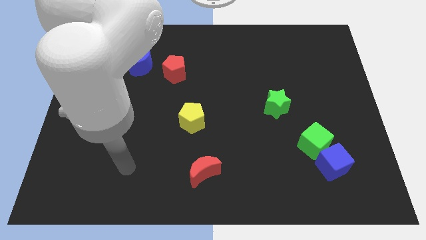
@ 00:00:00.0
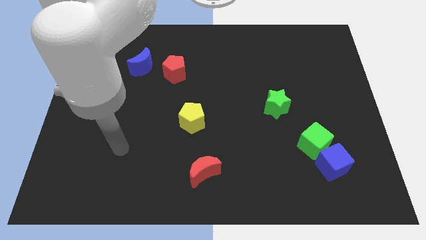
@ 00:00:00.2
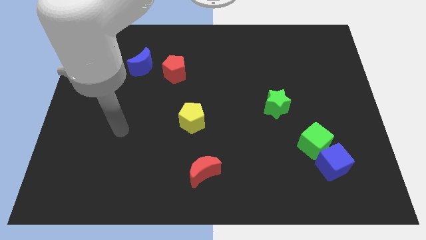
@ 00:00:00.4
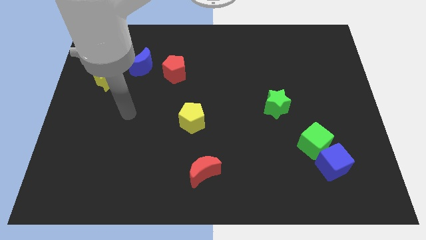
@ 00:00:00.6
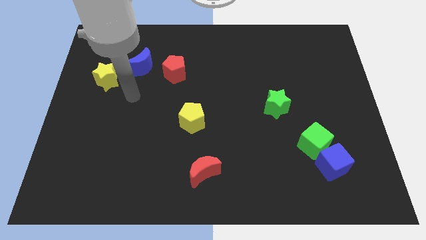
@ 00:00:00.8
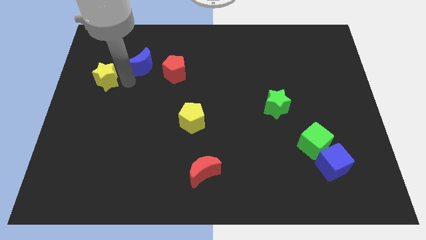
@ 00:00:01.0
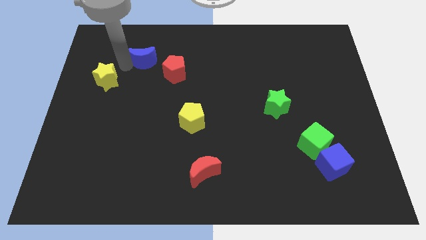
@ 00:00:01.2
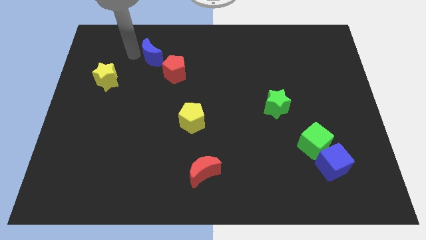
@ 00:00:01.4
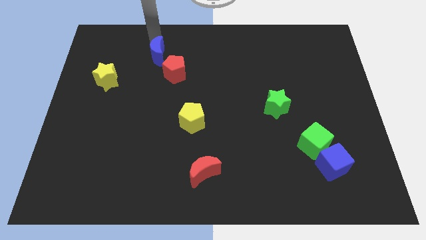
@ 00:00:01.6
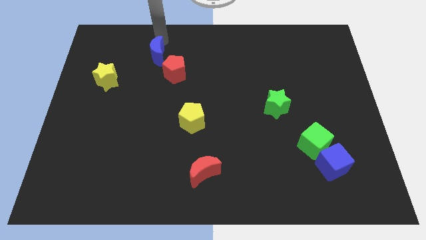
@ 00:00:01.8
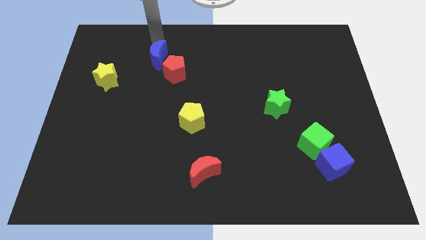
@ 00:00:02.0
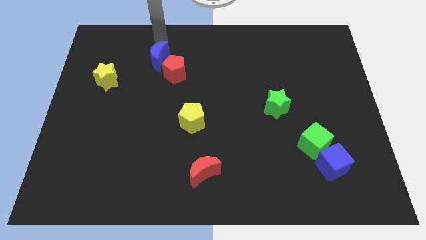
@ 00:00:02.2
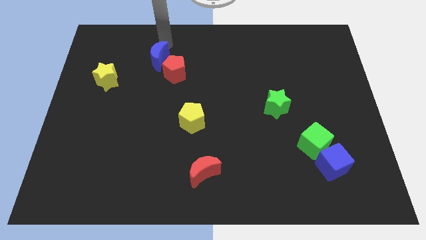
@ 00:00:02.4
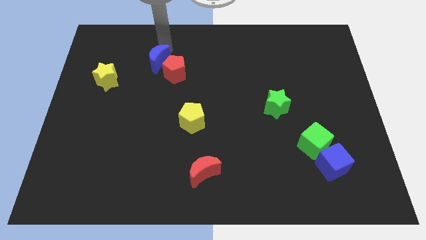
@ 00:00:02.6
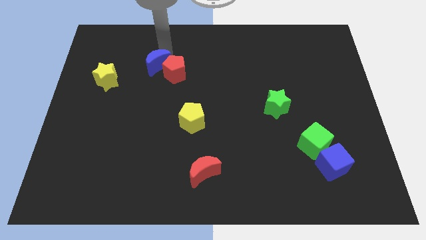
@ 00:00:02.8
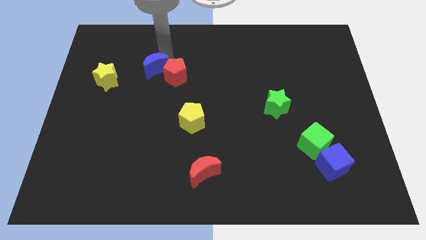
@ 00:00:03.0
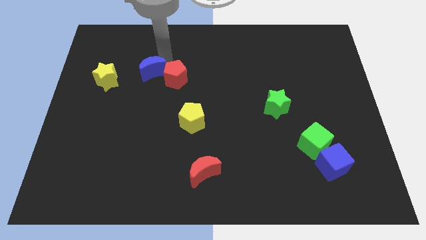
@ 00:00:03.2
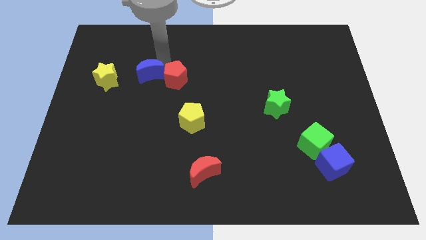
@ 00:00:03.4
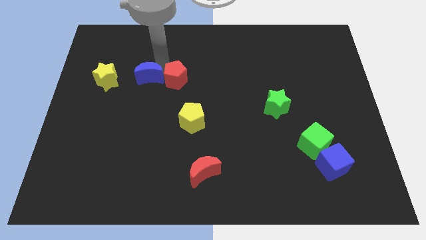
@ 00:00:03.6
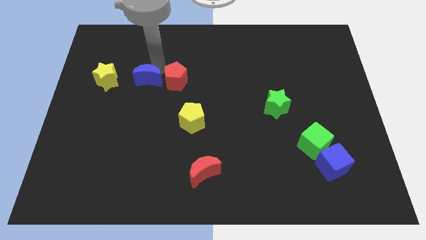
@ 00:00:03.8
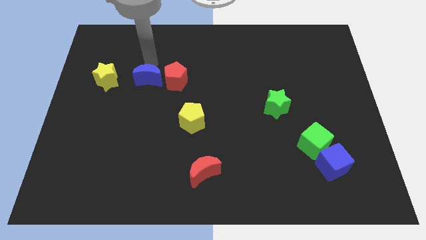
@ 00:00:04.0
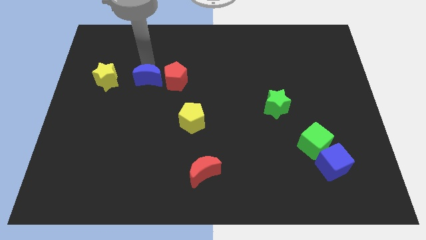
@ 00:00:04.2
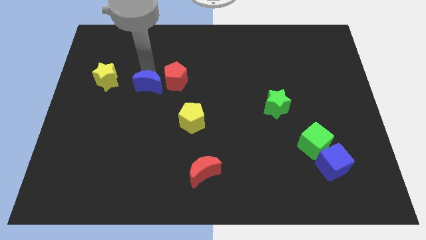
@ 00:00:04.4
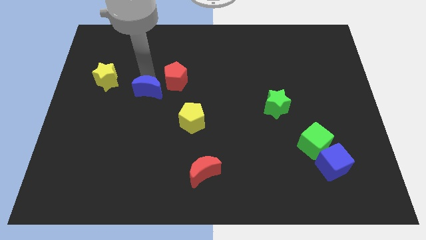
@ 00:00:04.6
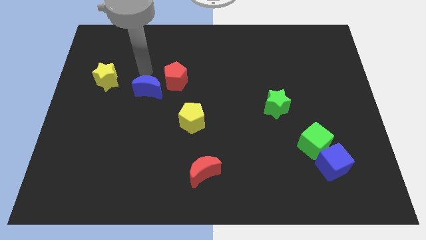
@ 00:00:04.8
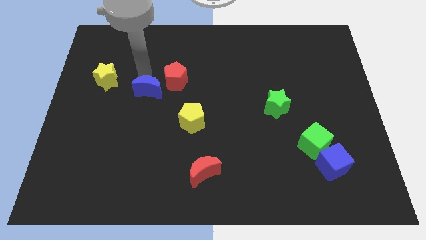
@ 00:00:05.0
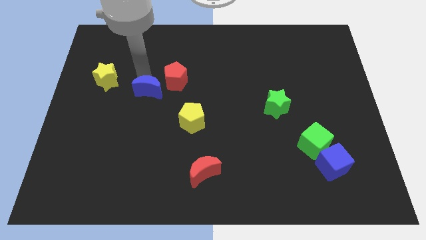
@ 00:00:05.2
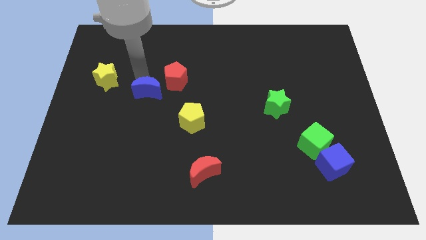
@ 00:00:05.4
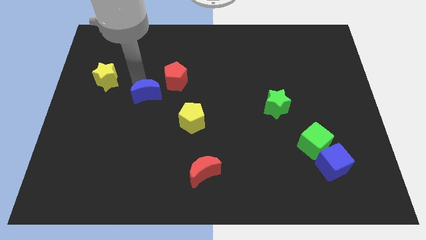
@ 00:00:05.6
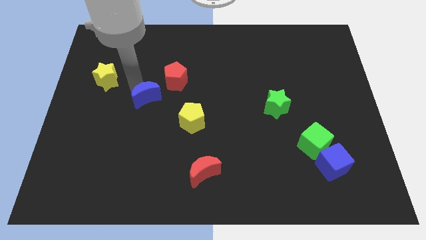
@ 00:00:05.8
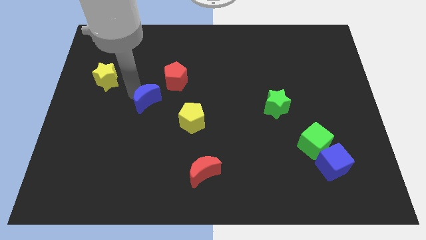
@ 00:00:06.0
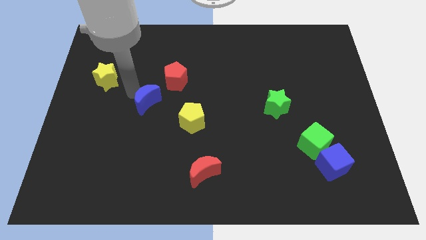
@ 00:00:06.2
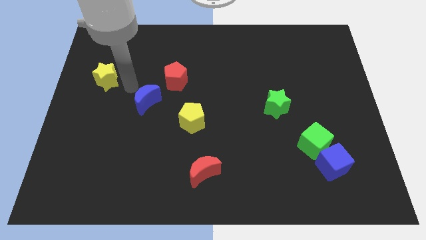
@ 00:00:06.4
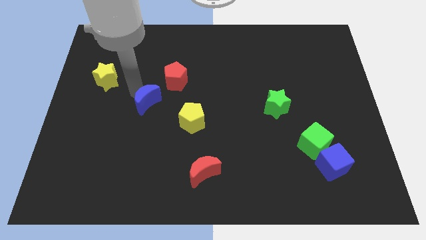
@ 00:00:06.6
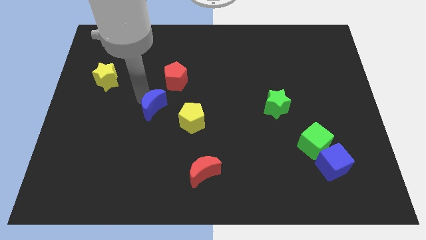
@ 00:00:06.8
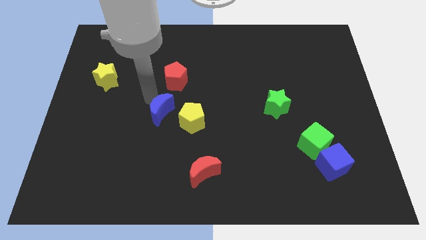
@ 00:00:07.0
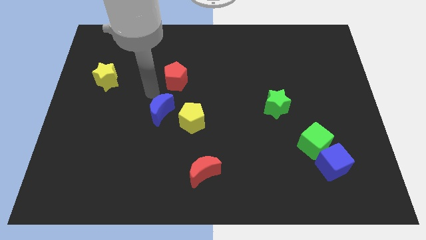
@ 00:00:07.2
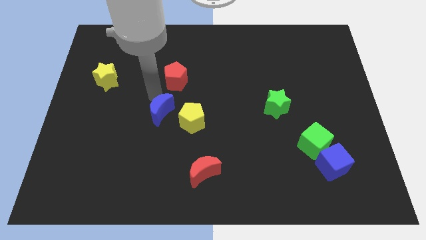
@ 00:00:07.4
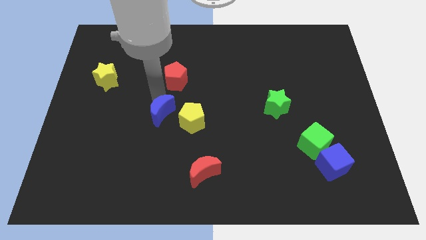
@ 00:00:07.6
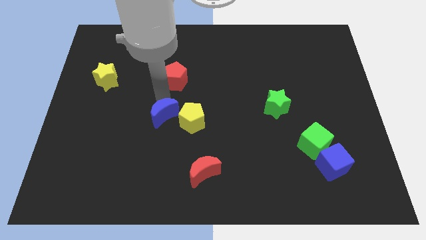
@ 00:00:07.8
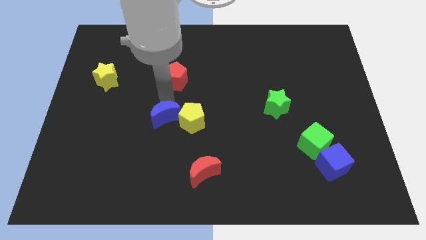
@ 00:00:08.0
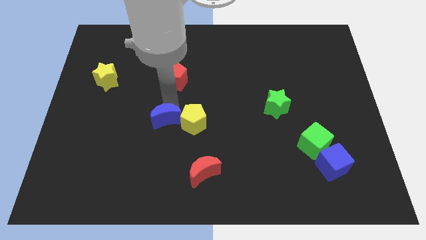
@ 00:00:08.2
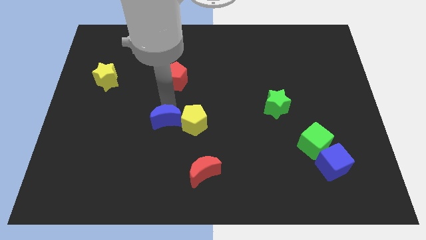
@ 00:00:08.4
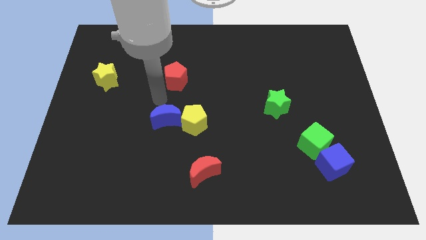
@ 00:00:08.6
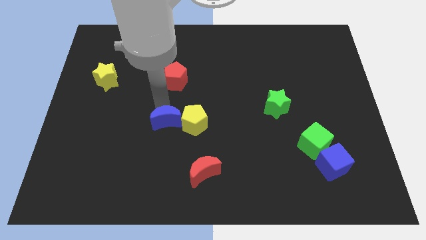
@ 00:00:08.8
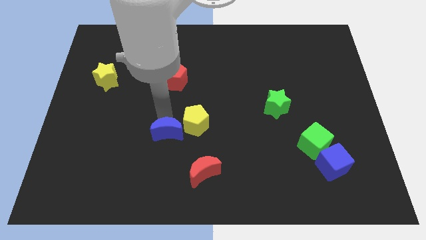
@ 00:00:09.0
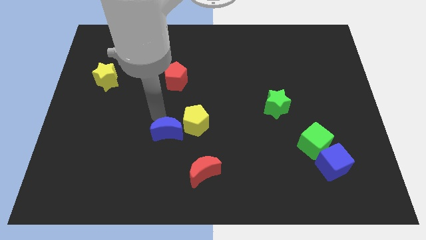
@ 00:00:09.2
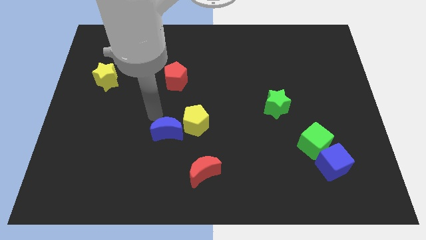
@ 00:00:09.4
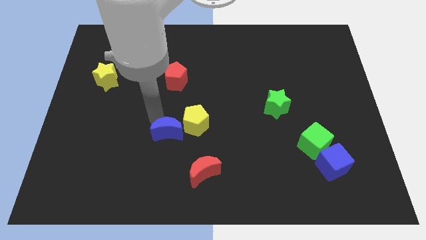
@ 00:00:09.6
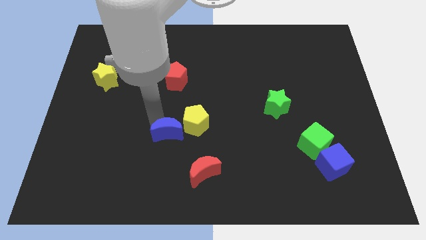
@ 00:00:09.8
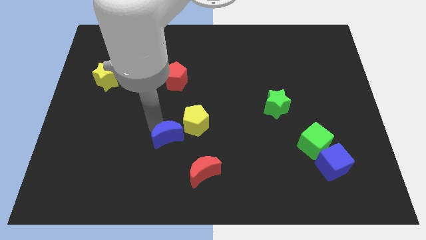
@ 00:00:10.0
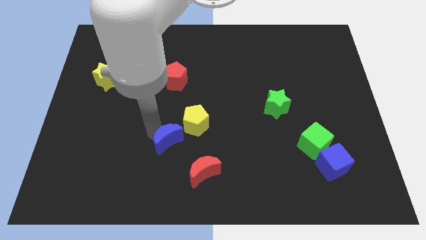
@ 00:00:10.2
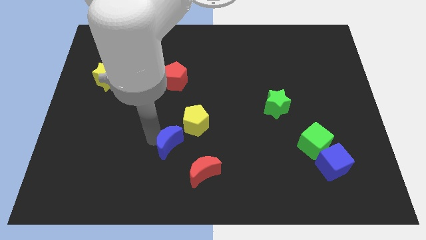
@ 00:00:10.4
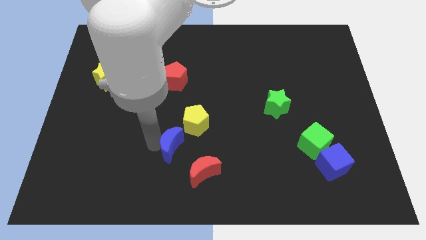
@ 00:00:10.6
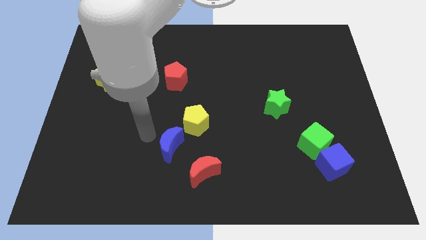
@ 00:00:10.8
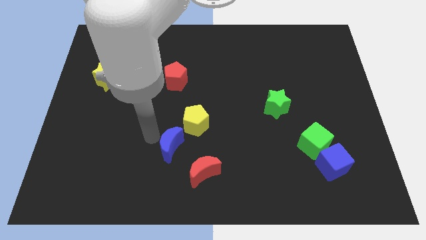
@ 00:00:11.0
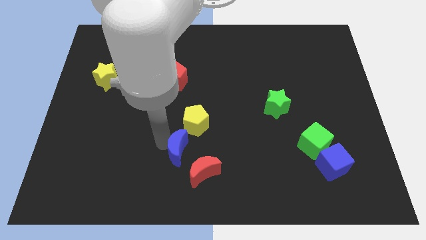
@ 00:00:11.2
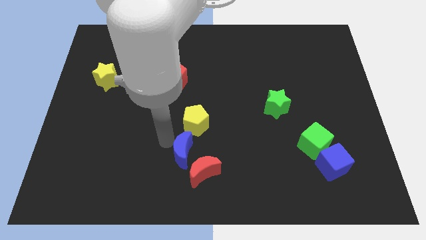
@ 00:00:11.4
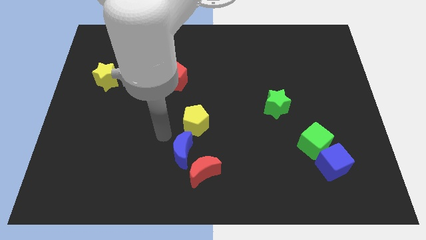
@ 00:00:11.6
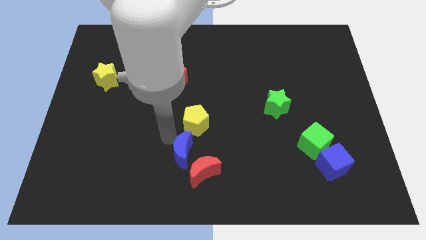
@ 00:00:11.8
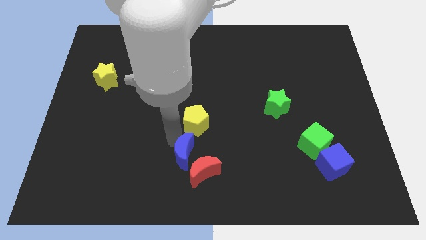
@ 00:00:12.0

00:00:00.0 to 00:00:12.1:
put the blue moon towards the red moon

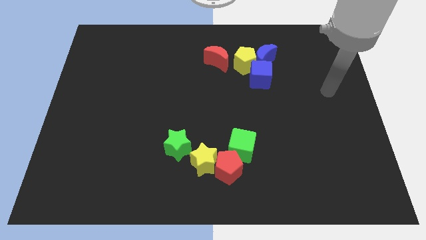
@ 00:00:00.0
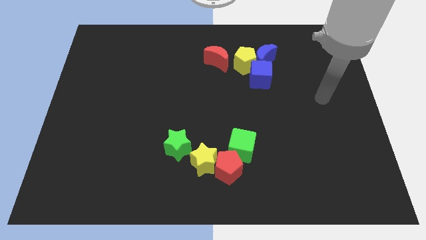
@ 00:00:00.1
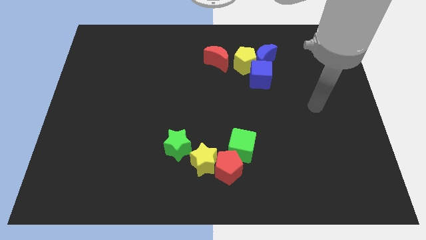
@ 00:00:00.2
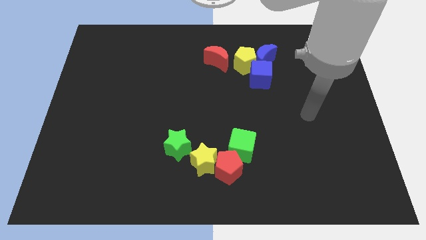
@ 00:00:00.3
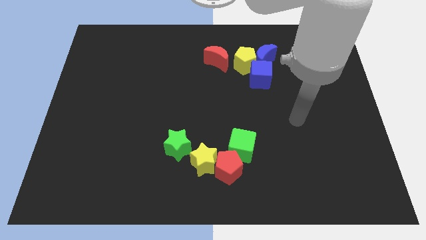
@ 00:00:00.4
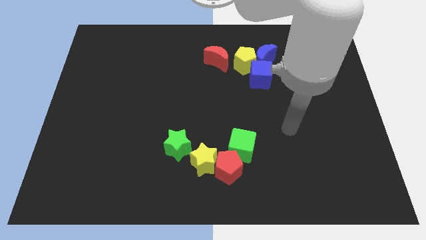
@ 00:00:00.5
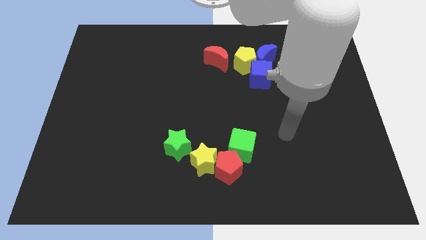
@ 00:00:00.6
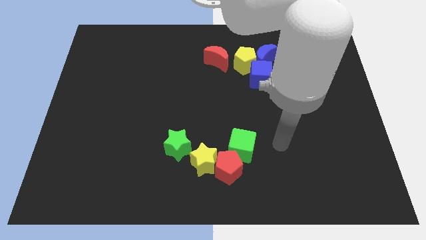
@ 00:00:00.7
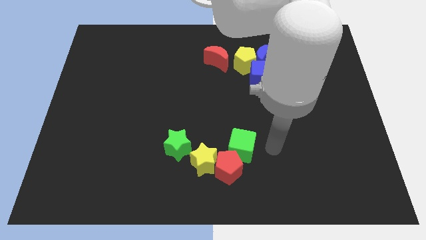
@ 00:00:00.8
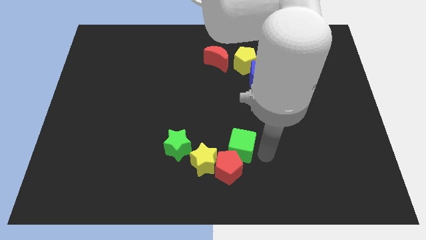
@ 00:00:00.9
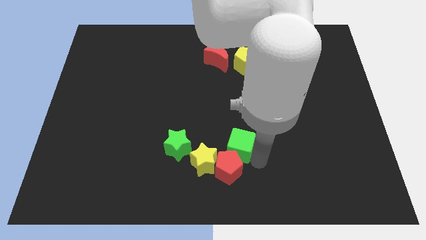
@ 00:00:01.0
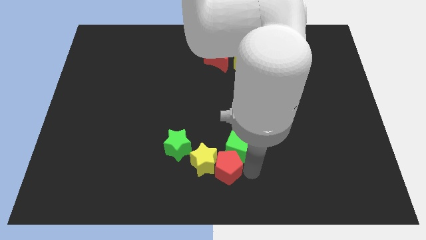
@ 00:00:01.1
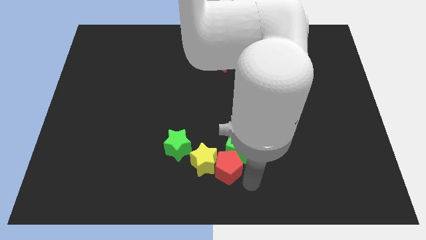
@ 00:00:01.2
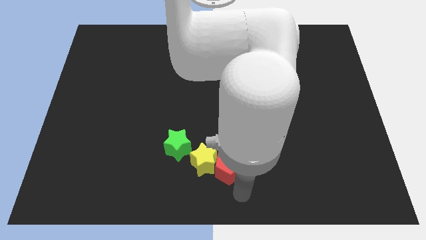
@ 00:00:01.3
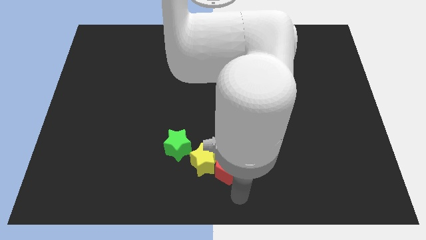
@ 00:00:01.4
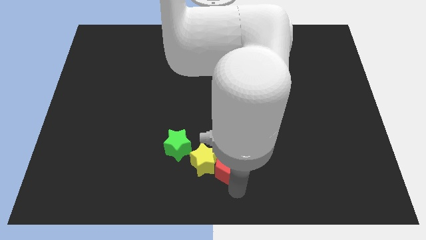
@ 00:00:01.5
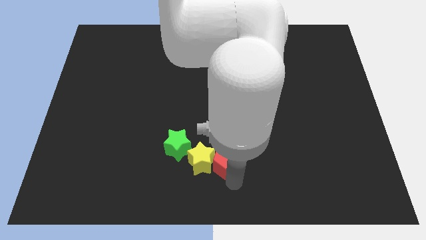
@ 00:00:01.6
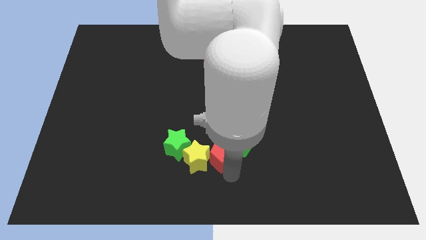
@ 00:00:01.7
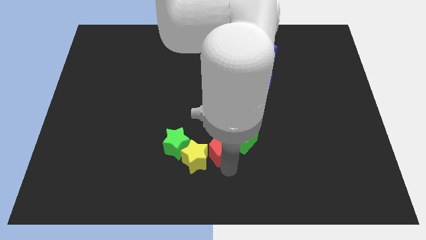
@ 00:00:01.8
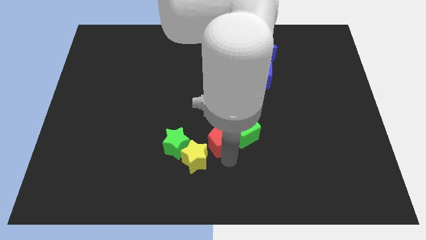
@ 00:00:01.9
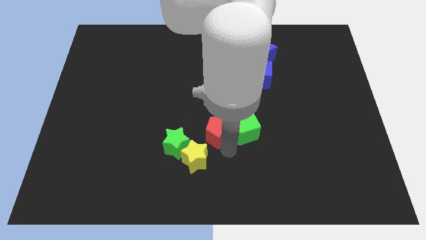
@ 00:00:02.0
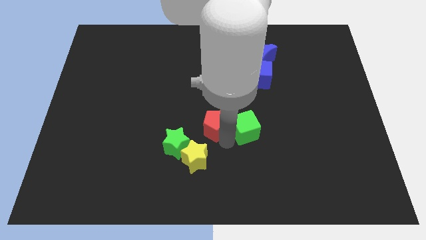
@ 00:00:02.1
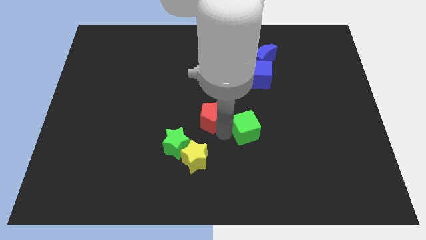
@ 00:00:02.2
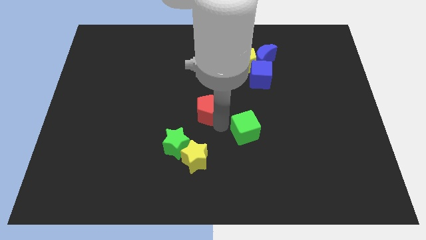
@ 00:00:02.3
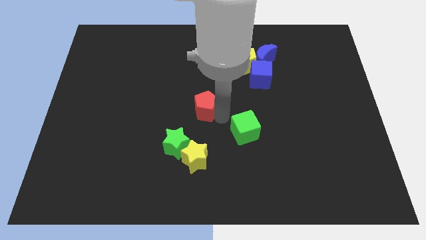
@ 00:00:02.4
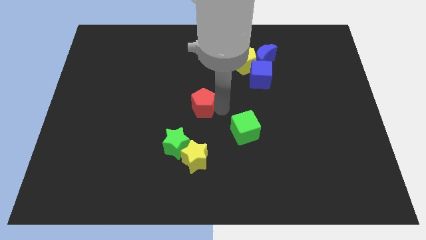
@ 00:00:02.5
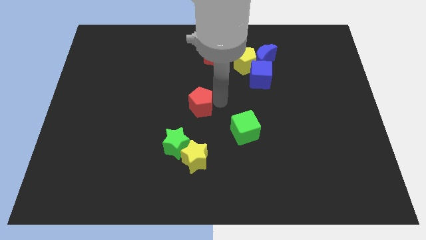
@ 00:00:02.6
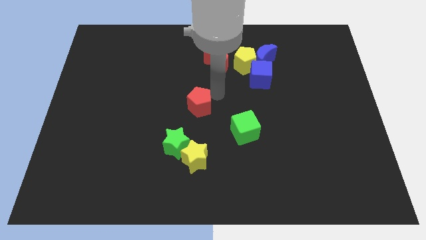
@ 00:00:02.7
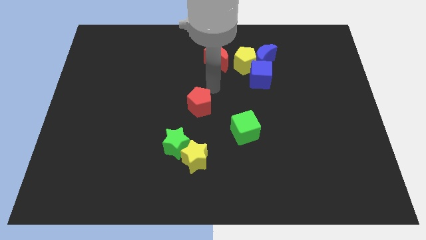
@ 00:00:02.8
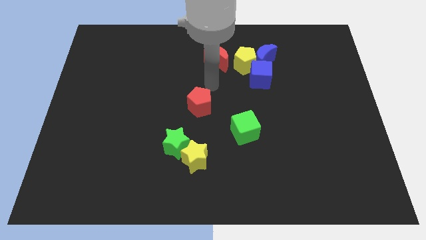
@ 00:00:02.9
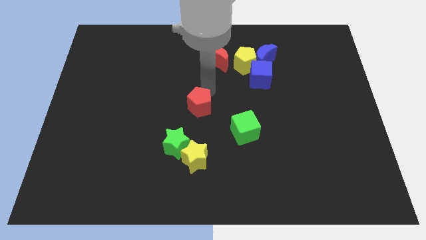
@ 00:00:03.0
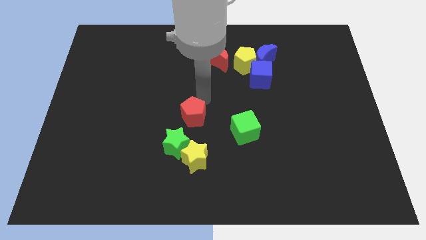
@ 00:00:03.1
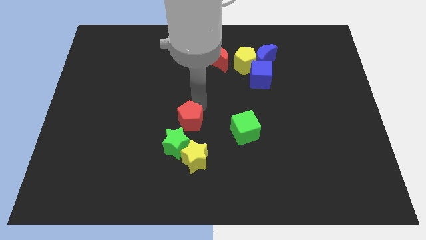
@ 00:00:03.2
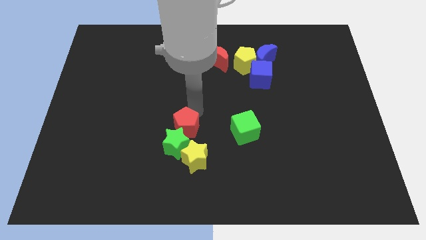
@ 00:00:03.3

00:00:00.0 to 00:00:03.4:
move the red pentagon to the green star
